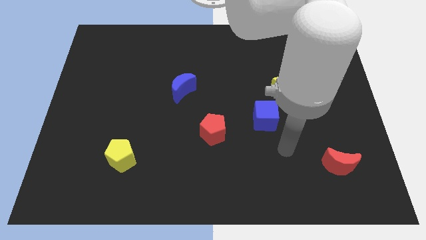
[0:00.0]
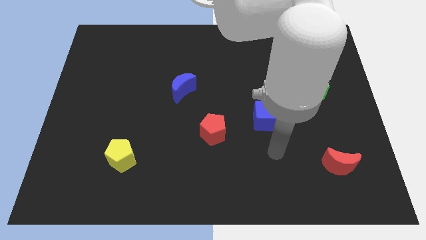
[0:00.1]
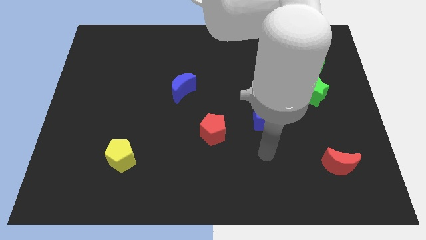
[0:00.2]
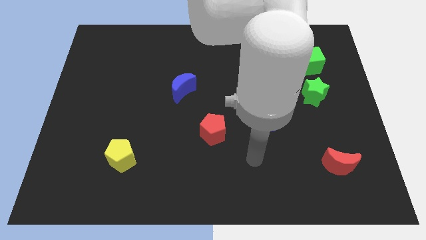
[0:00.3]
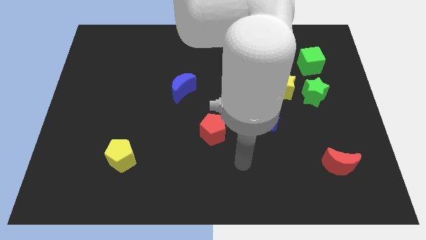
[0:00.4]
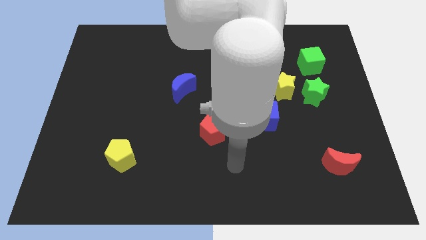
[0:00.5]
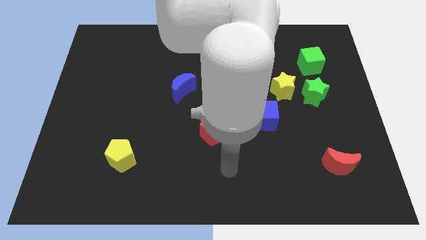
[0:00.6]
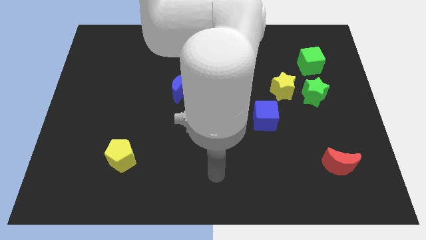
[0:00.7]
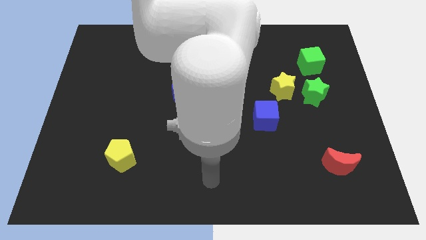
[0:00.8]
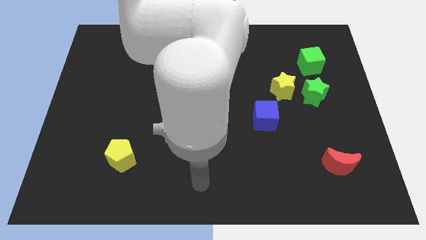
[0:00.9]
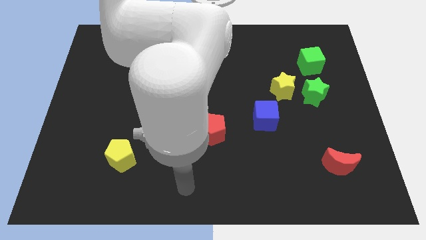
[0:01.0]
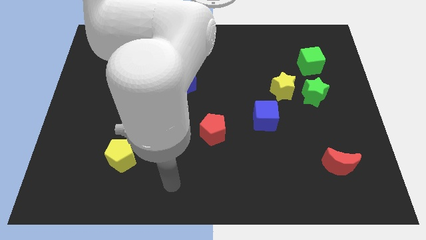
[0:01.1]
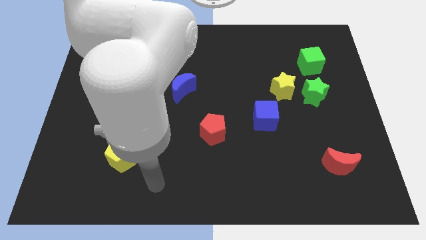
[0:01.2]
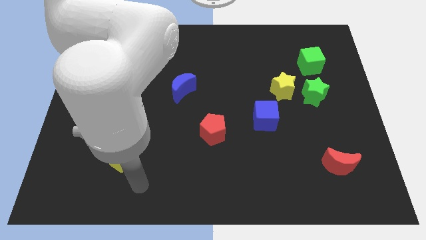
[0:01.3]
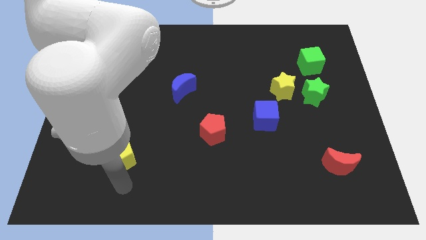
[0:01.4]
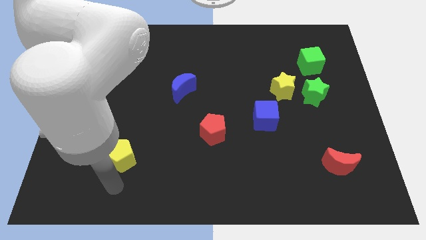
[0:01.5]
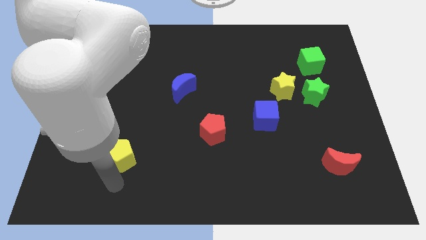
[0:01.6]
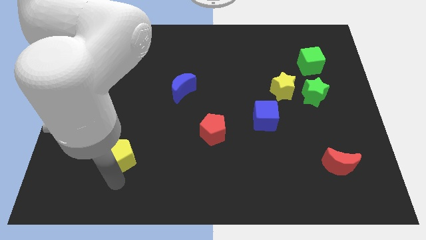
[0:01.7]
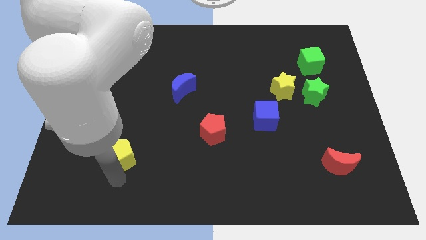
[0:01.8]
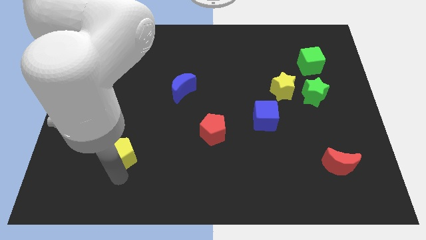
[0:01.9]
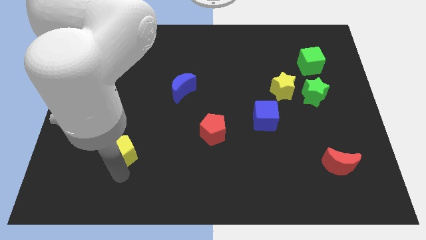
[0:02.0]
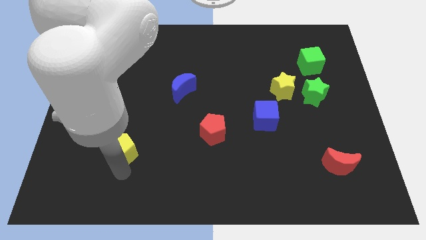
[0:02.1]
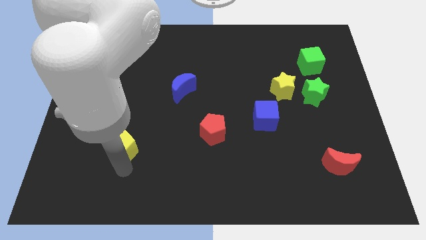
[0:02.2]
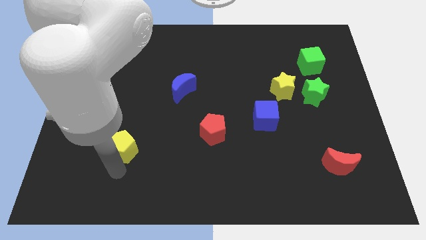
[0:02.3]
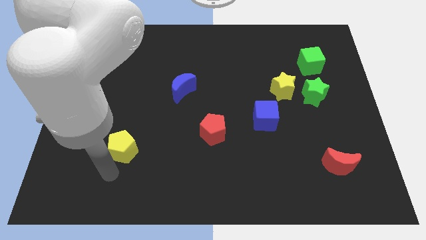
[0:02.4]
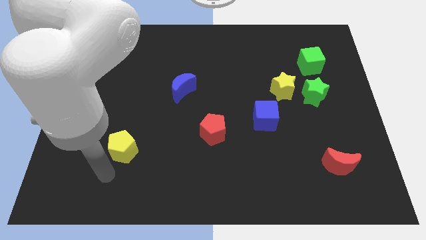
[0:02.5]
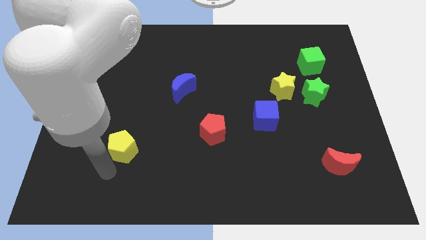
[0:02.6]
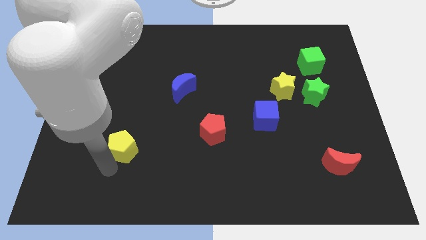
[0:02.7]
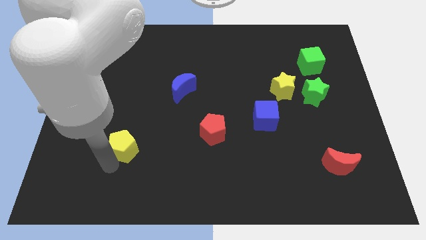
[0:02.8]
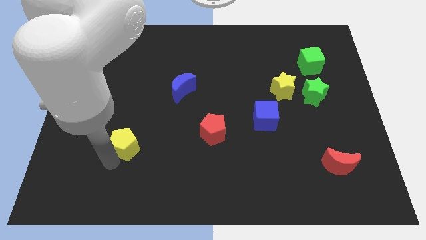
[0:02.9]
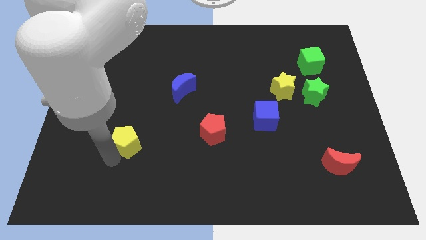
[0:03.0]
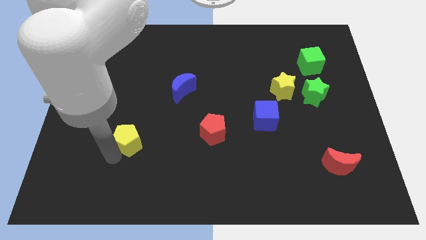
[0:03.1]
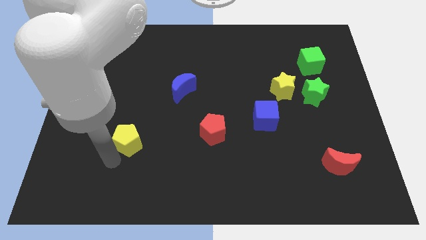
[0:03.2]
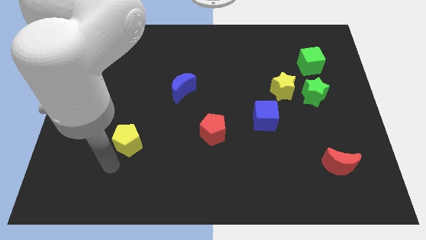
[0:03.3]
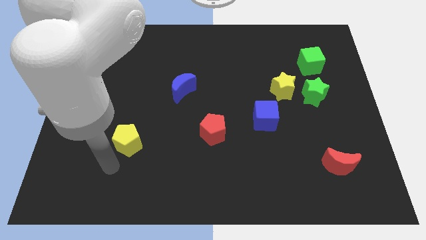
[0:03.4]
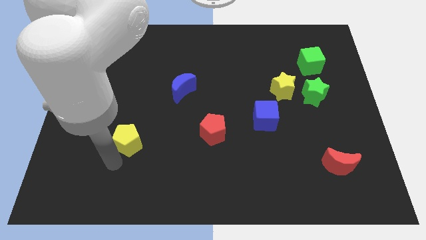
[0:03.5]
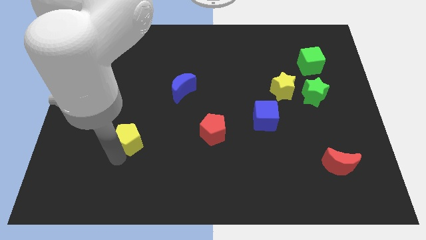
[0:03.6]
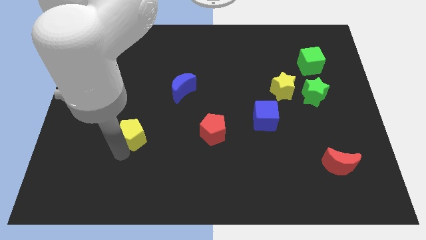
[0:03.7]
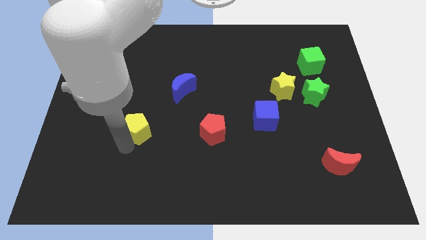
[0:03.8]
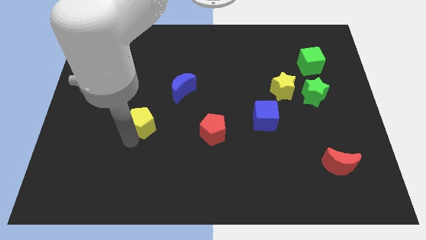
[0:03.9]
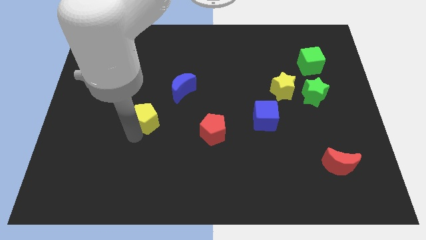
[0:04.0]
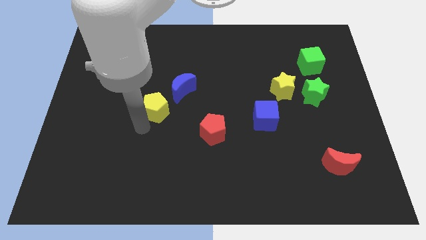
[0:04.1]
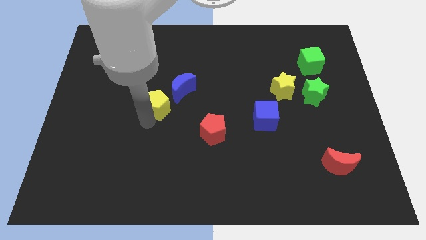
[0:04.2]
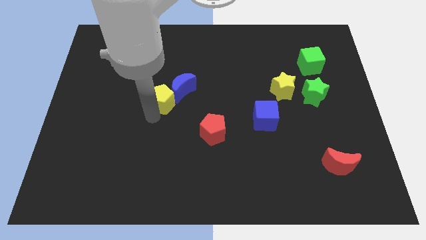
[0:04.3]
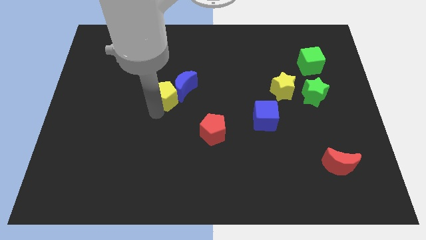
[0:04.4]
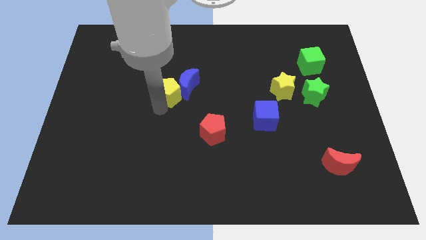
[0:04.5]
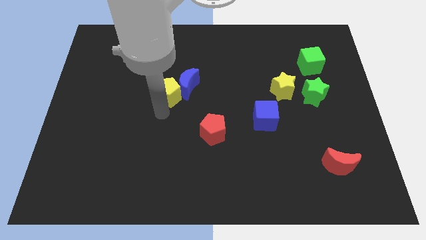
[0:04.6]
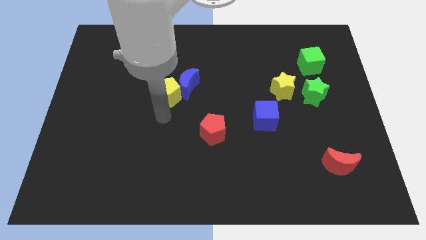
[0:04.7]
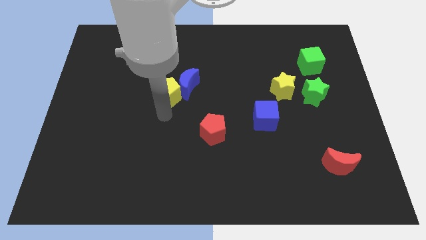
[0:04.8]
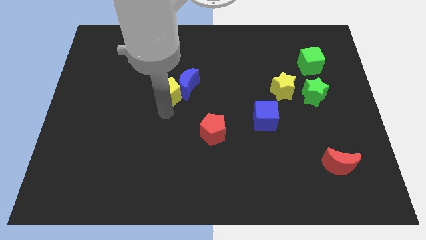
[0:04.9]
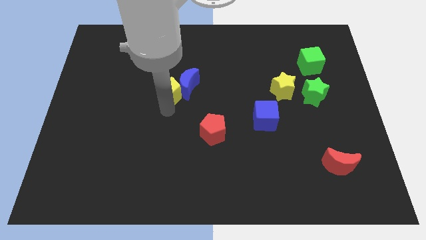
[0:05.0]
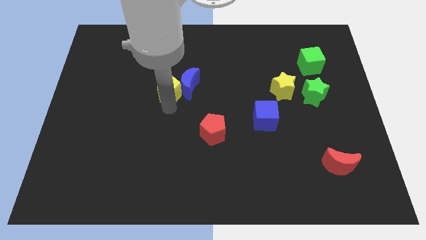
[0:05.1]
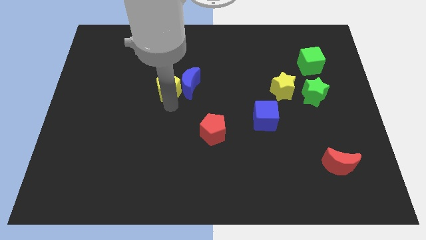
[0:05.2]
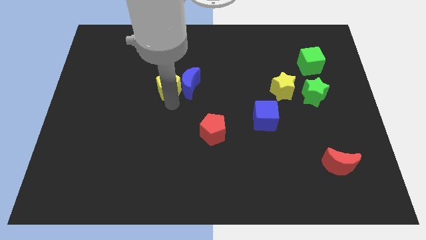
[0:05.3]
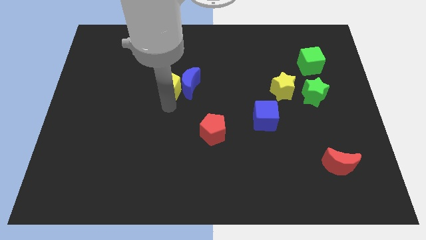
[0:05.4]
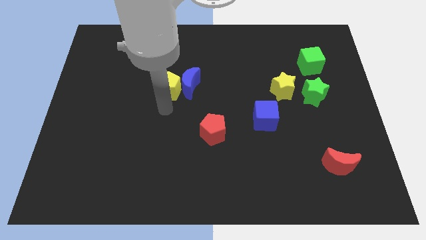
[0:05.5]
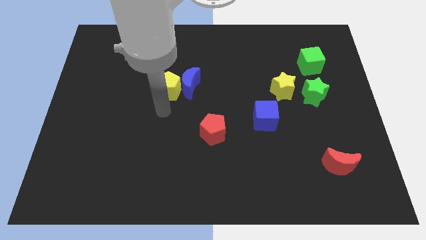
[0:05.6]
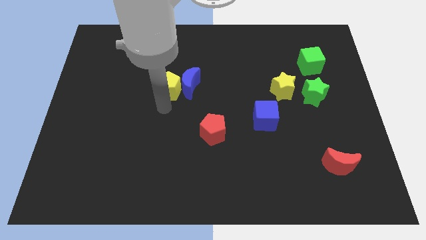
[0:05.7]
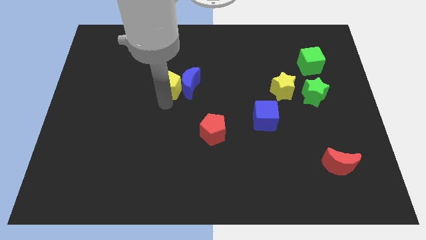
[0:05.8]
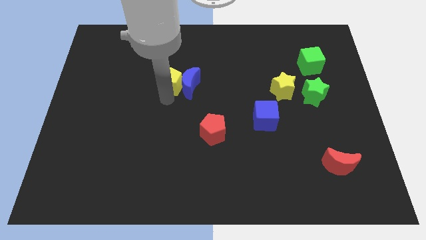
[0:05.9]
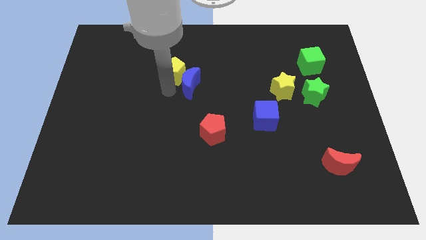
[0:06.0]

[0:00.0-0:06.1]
push the yellow pentagon to the top of the blue moon

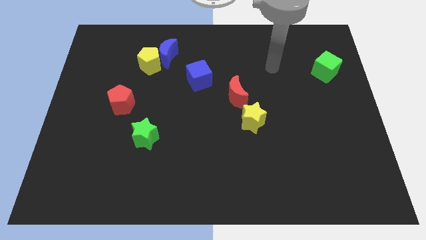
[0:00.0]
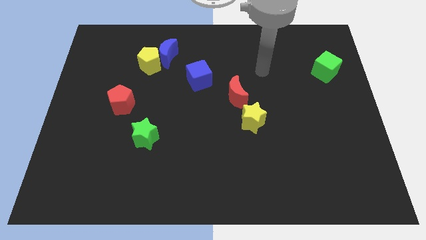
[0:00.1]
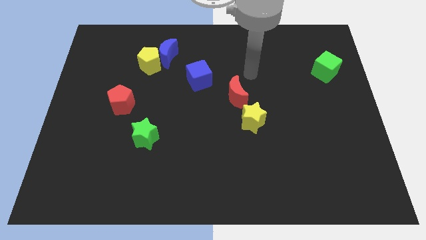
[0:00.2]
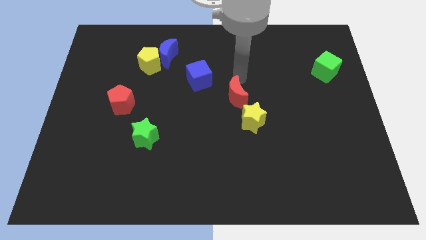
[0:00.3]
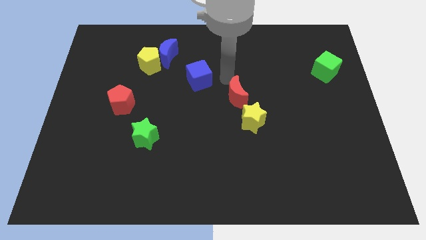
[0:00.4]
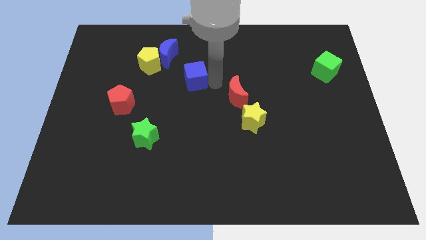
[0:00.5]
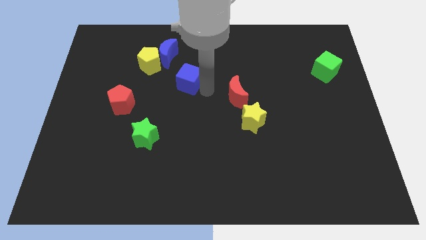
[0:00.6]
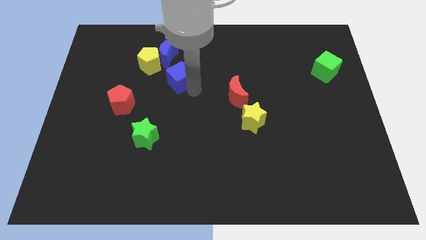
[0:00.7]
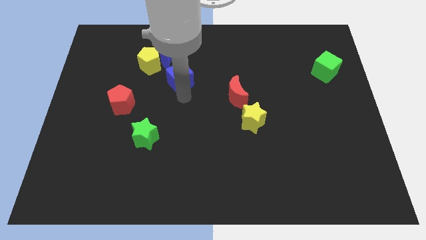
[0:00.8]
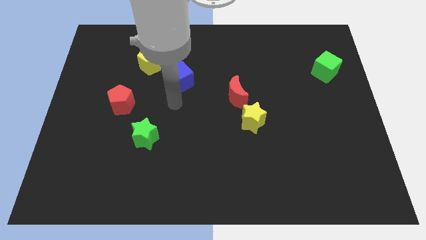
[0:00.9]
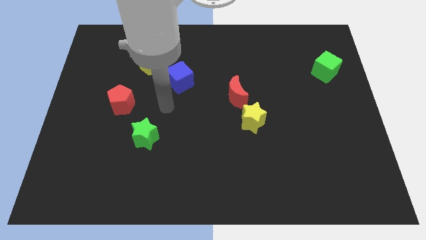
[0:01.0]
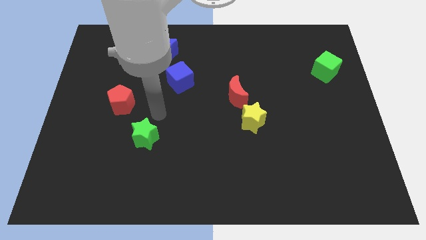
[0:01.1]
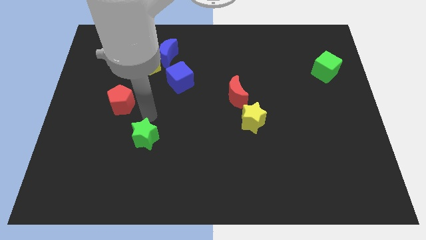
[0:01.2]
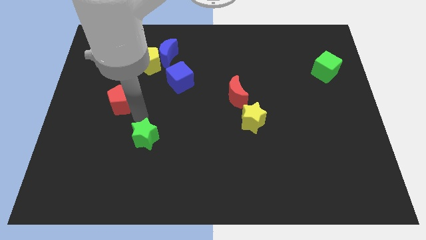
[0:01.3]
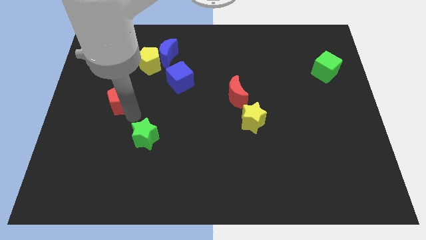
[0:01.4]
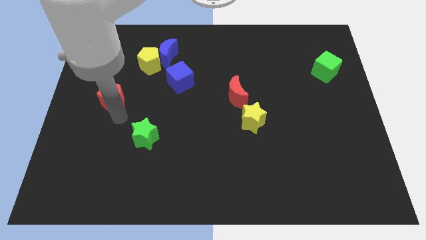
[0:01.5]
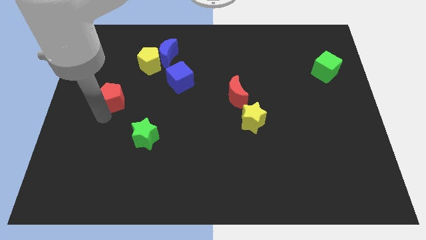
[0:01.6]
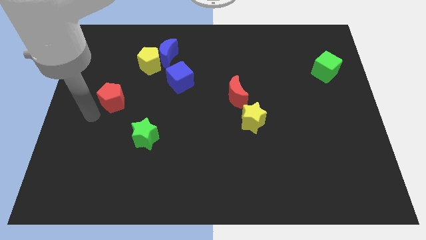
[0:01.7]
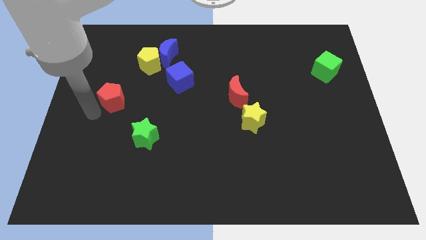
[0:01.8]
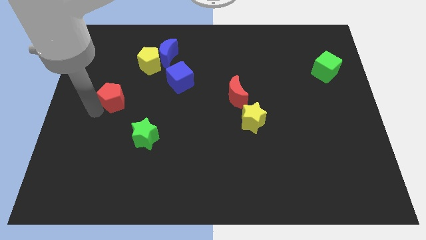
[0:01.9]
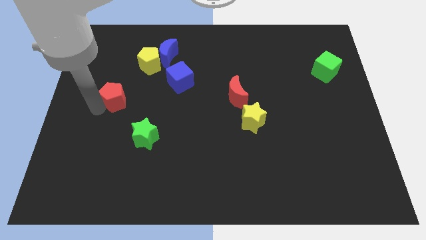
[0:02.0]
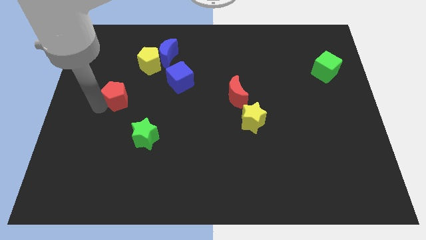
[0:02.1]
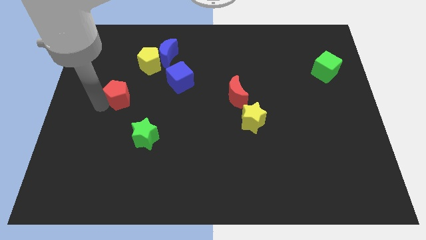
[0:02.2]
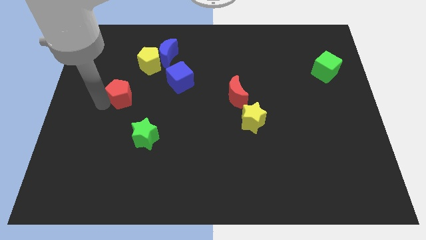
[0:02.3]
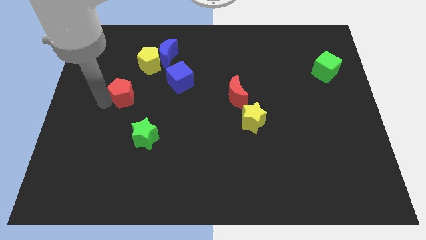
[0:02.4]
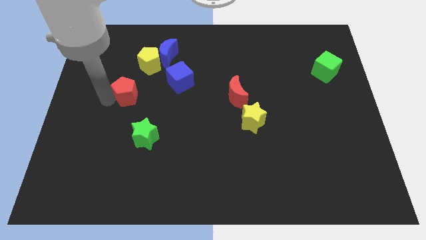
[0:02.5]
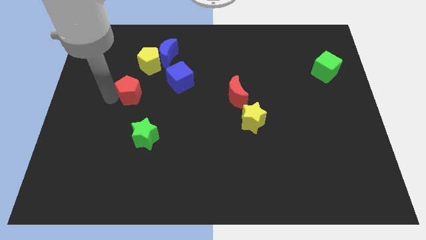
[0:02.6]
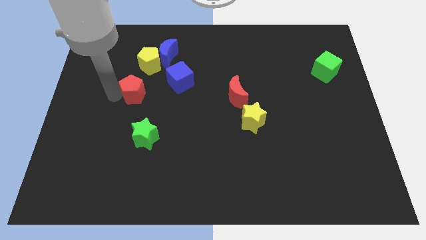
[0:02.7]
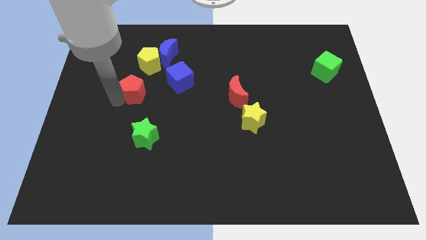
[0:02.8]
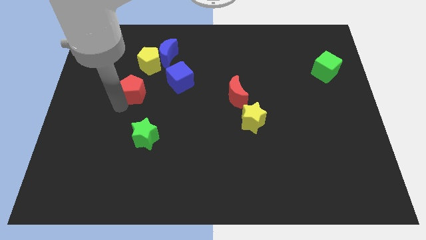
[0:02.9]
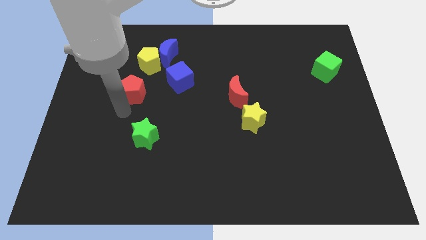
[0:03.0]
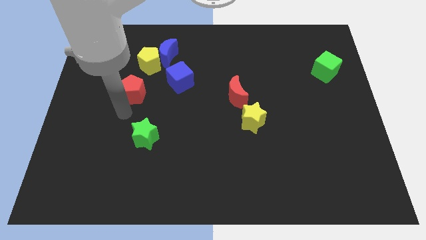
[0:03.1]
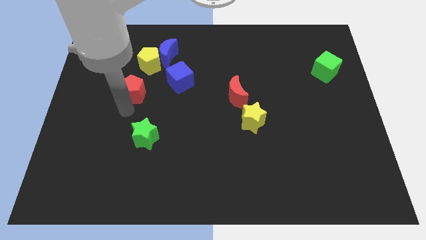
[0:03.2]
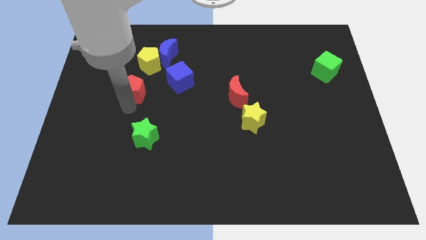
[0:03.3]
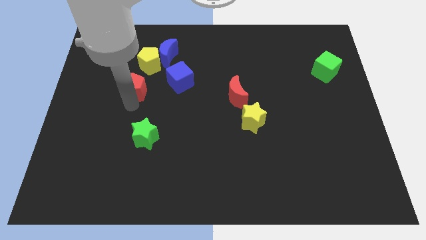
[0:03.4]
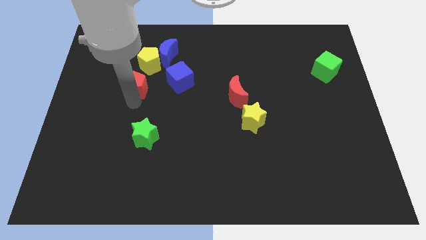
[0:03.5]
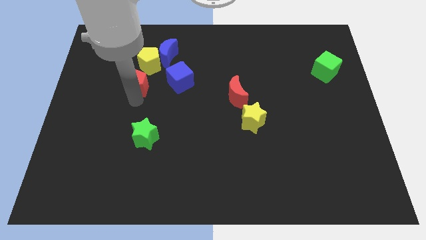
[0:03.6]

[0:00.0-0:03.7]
put the red pentagon to the bottom left of the blue moon
